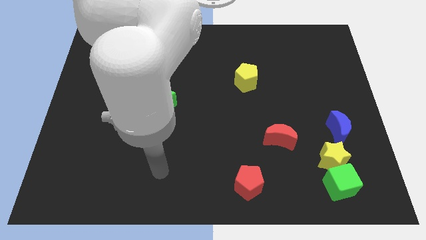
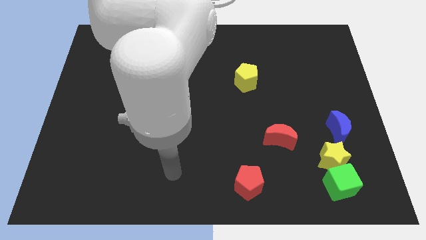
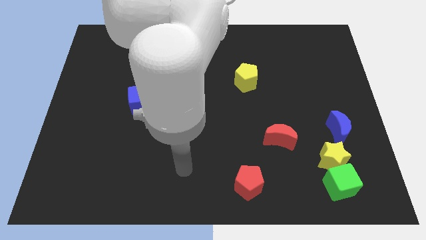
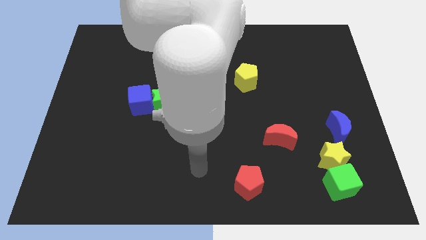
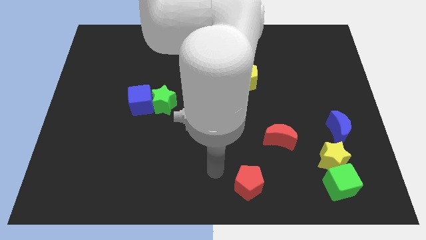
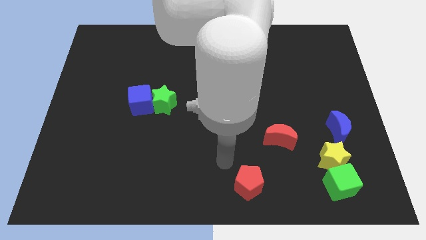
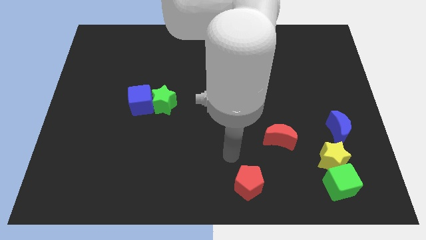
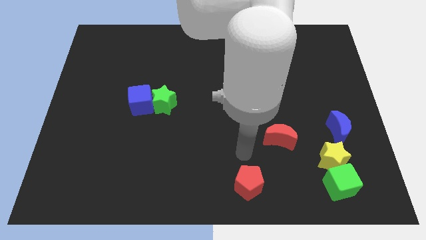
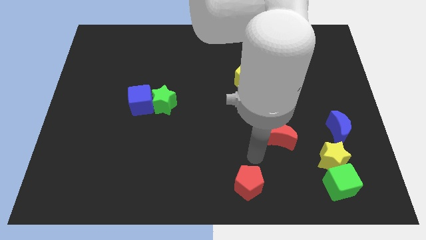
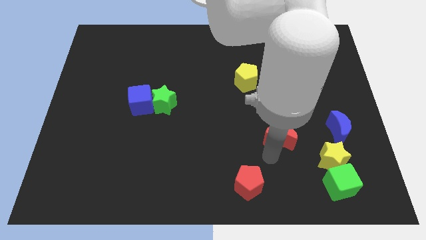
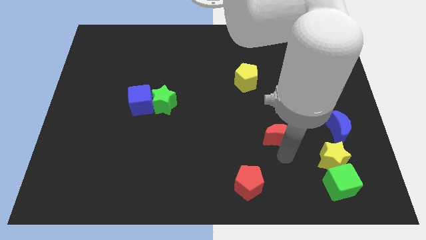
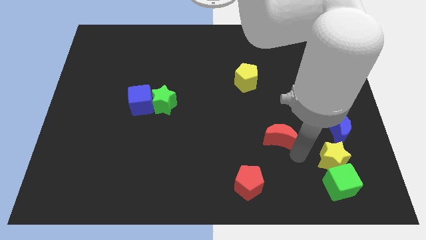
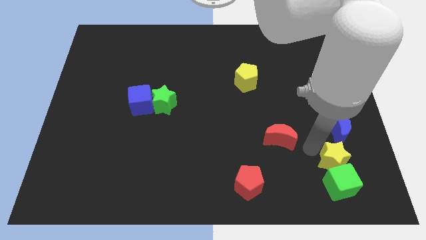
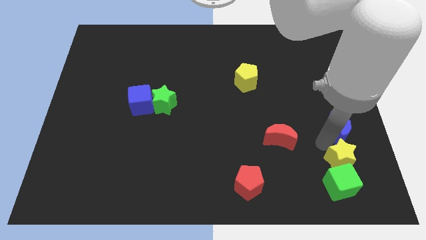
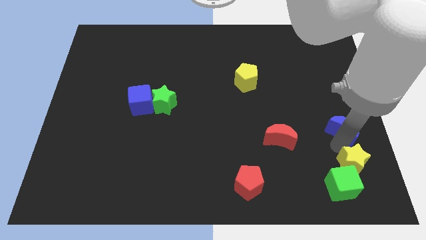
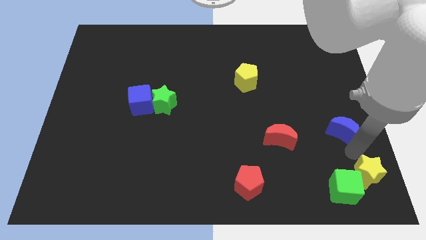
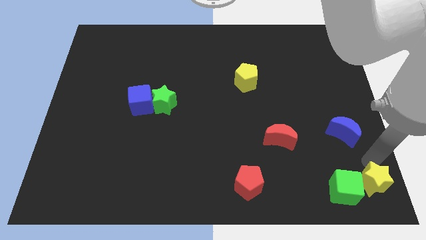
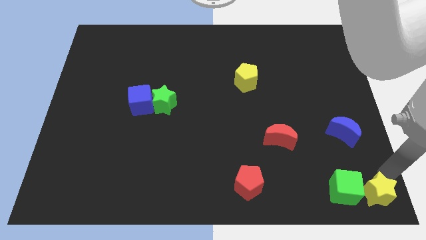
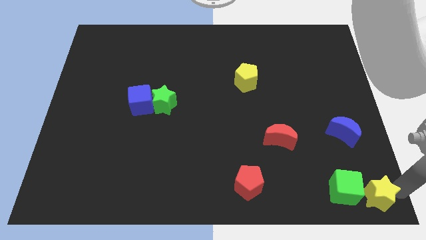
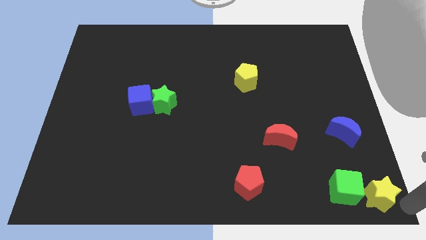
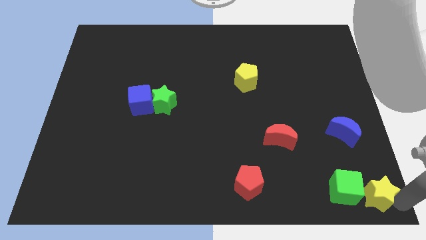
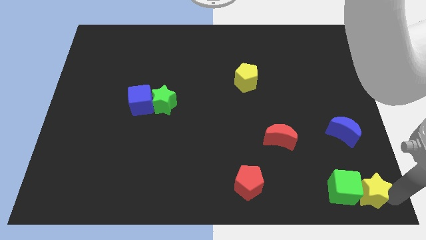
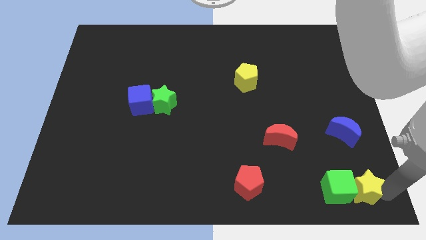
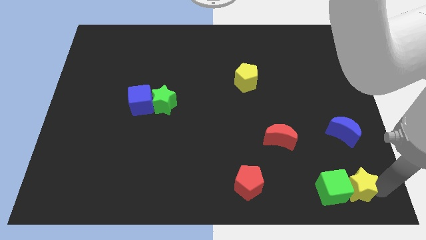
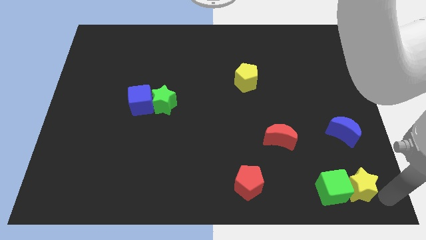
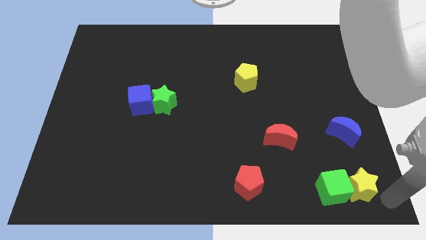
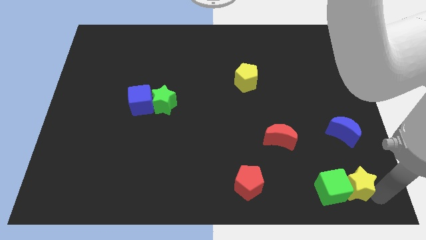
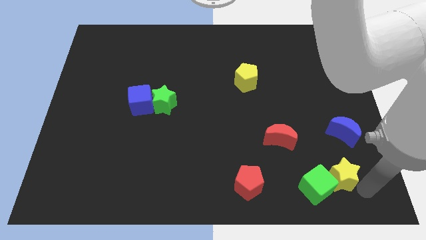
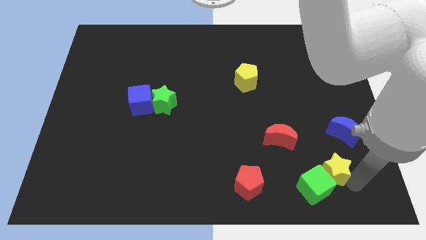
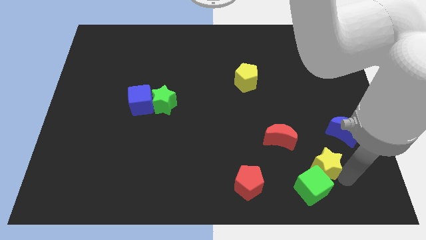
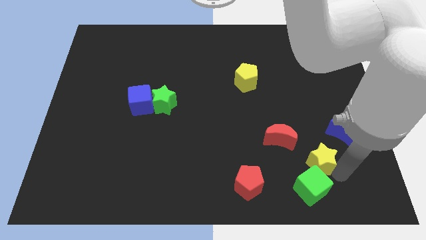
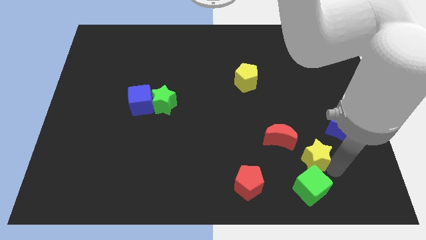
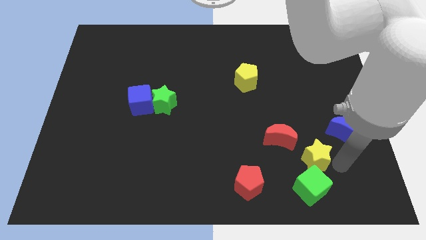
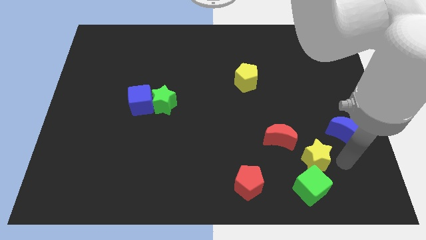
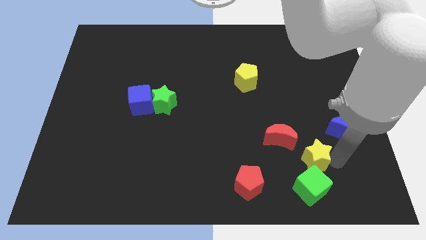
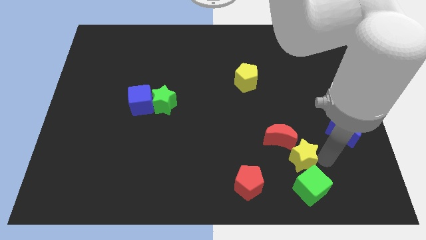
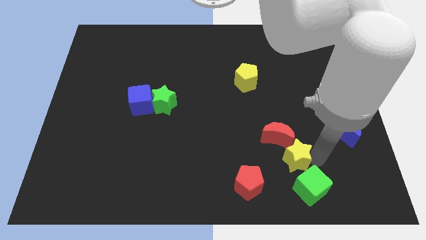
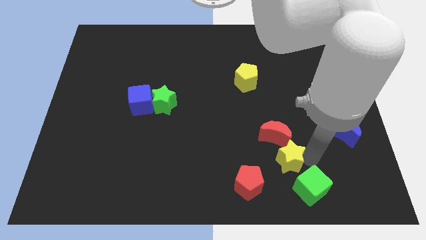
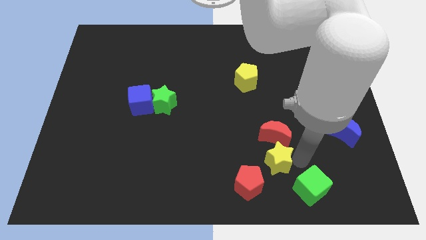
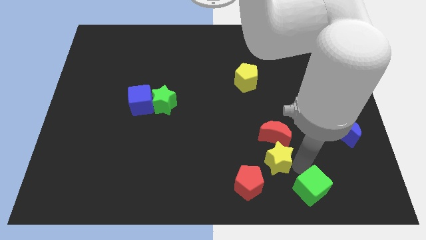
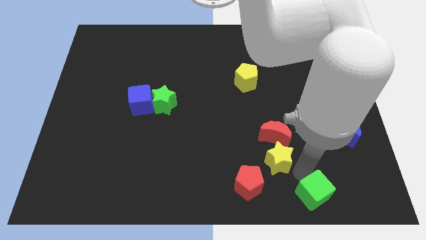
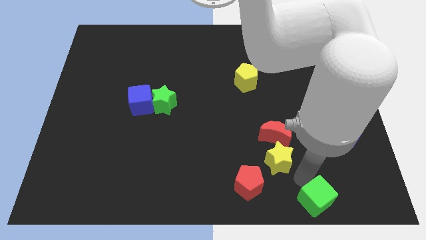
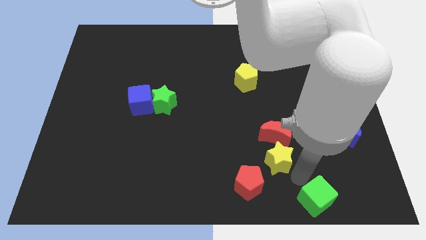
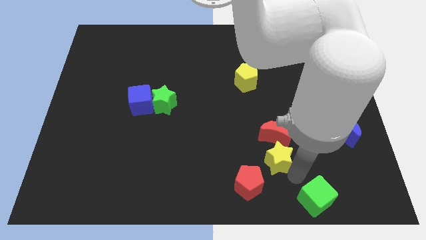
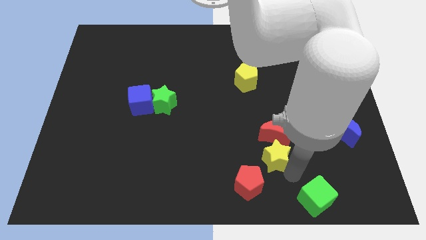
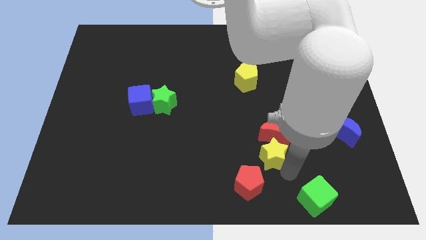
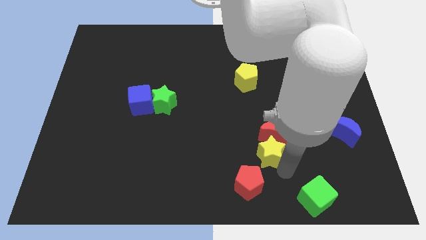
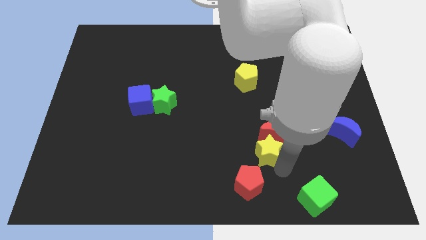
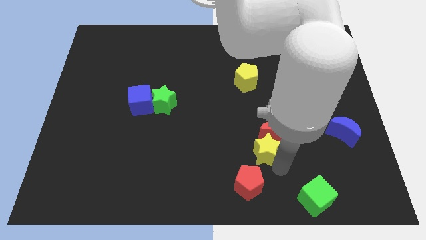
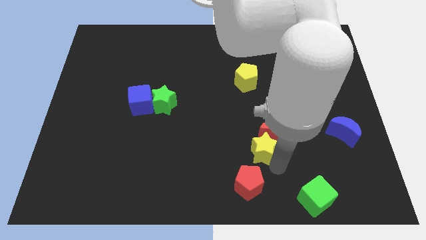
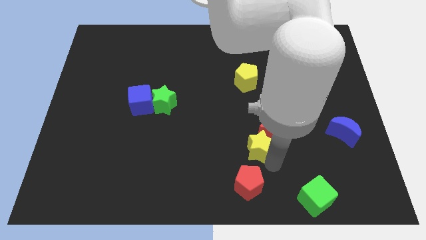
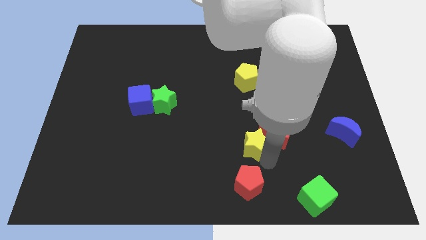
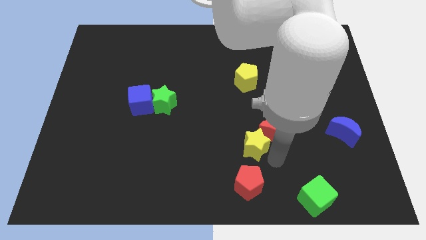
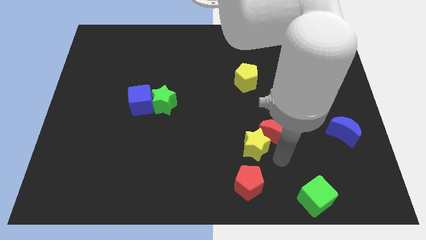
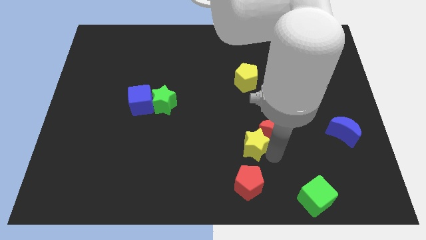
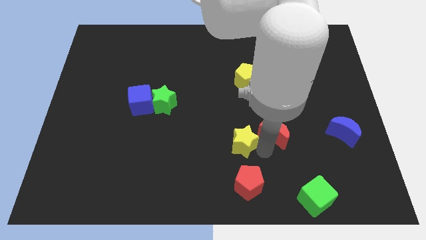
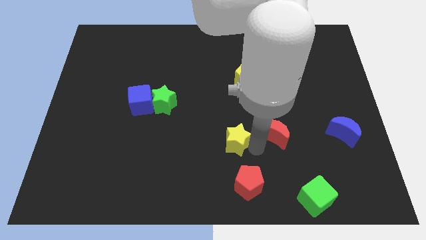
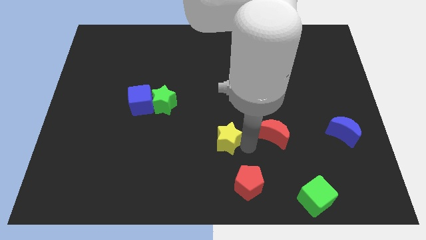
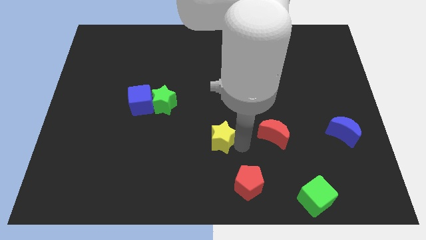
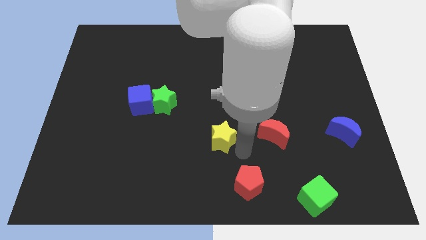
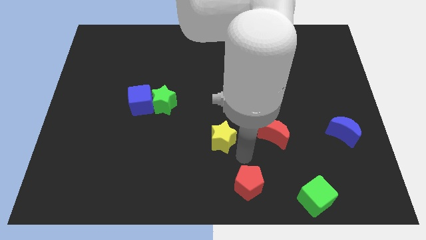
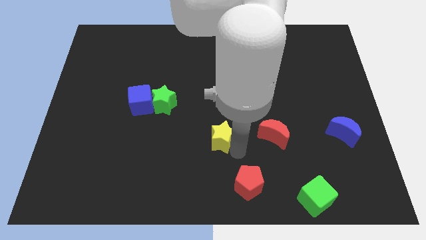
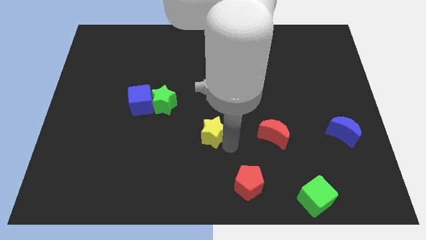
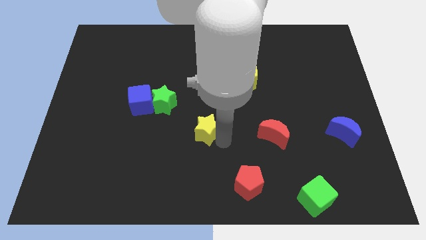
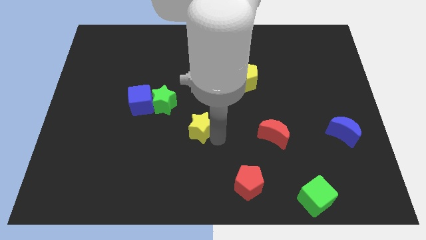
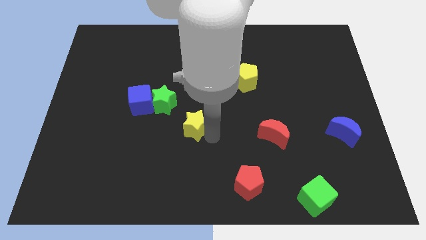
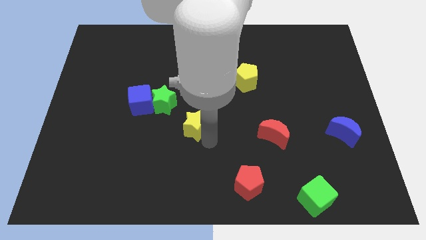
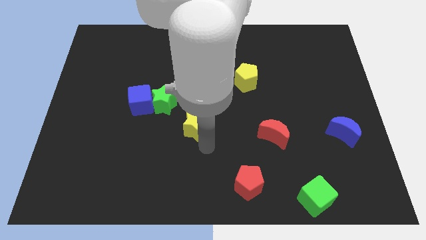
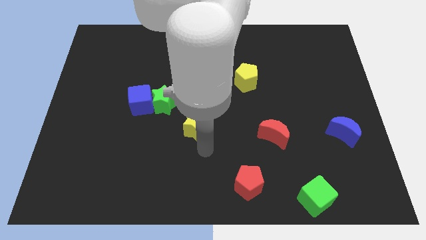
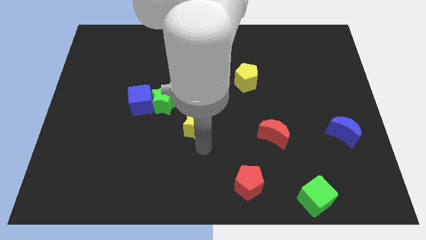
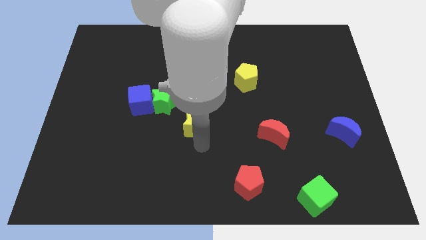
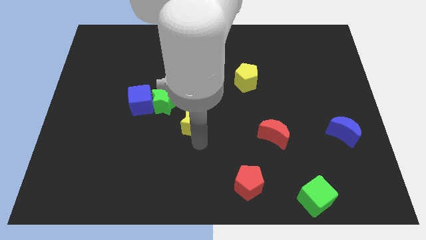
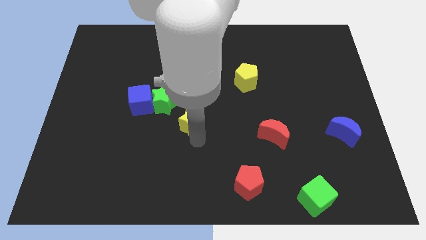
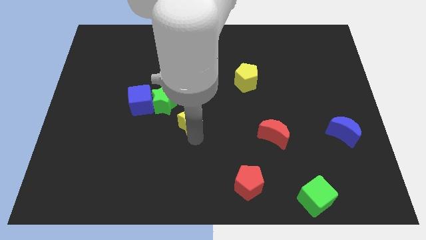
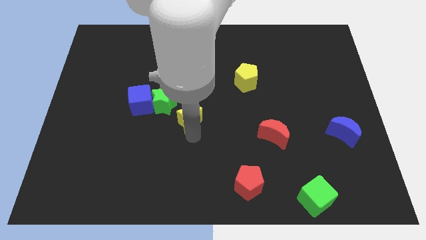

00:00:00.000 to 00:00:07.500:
slide the yellow star just right of the blue cube
